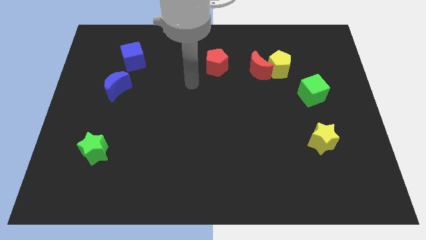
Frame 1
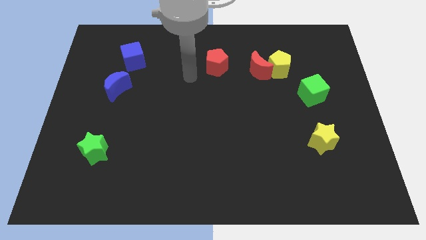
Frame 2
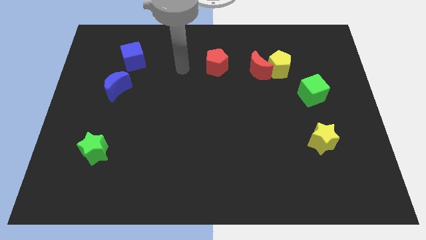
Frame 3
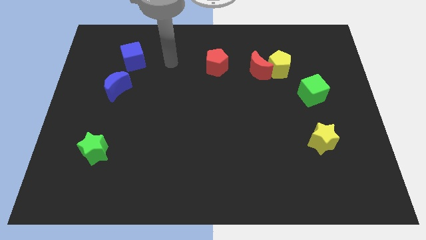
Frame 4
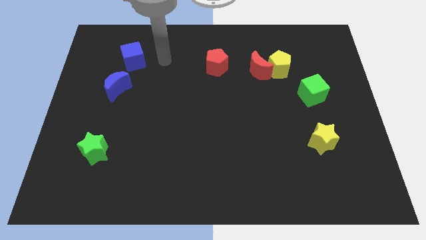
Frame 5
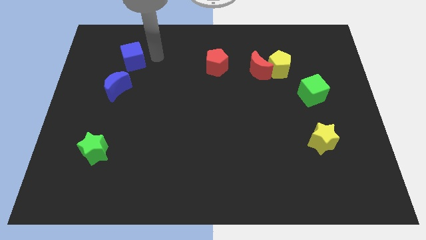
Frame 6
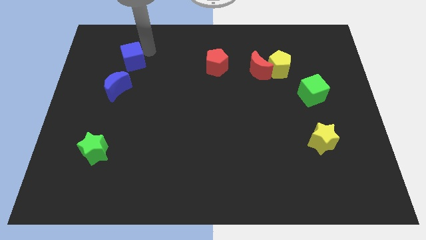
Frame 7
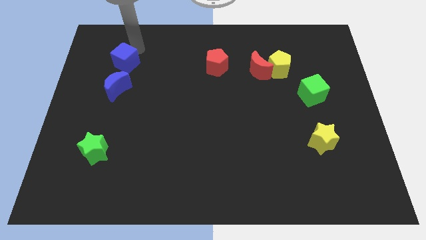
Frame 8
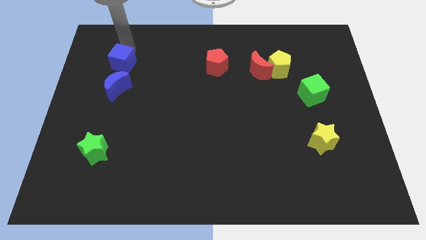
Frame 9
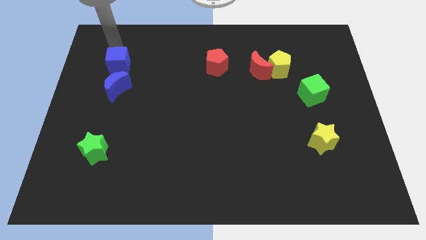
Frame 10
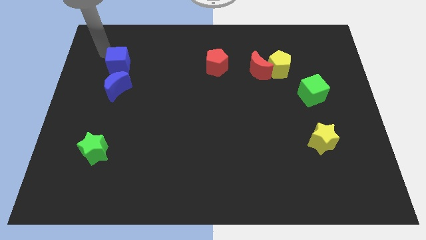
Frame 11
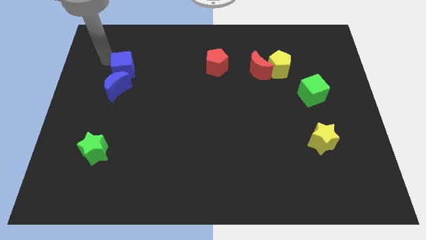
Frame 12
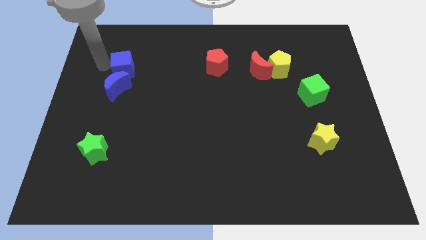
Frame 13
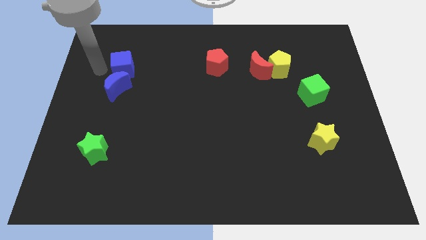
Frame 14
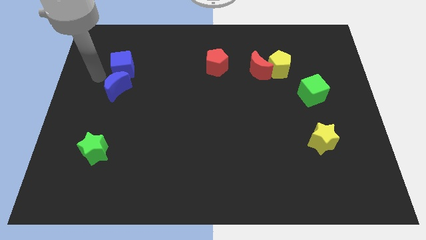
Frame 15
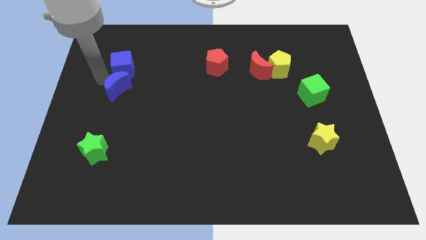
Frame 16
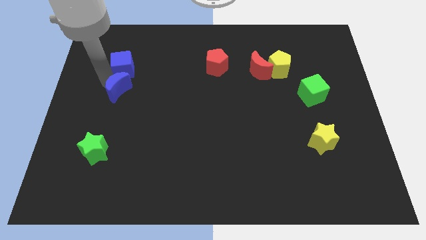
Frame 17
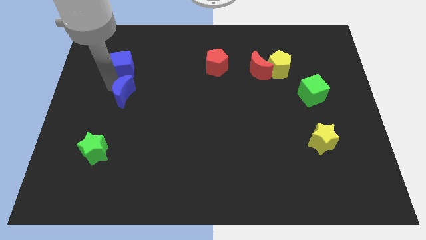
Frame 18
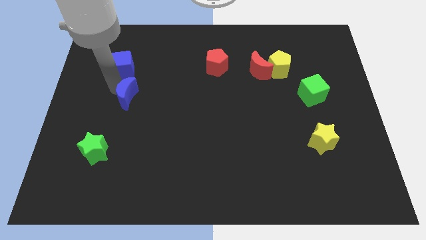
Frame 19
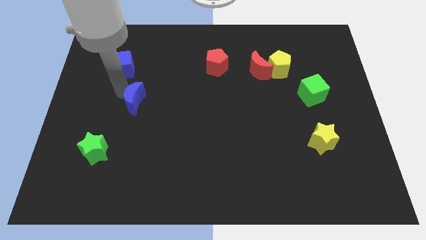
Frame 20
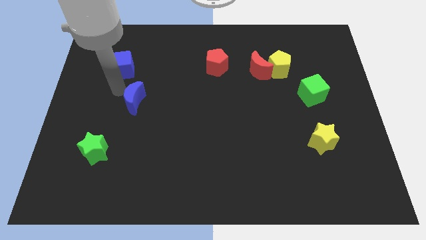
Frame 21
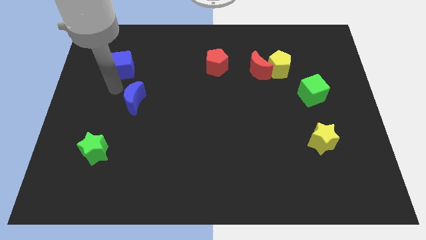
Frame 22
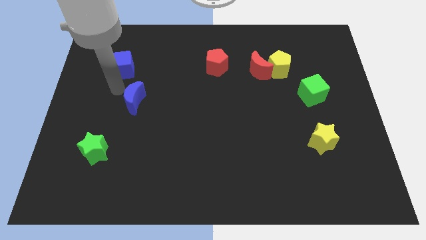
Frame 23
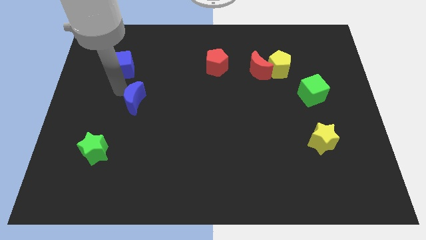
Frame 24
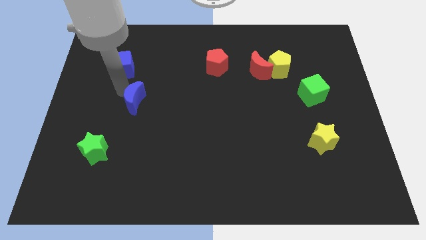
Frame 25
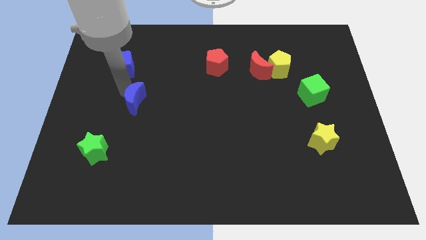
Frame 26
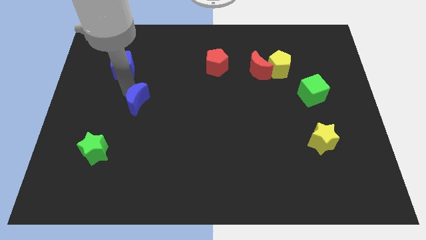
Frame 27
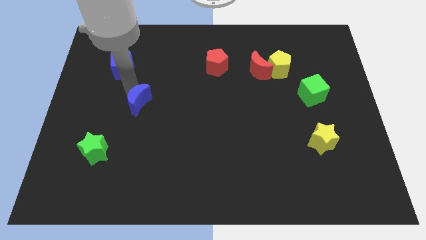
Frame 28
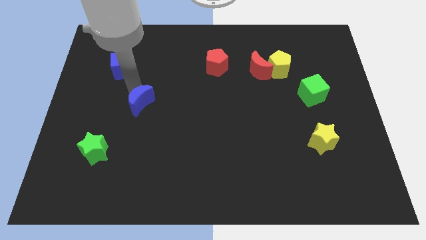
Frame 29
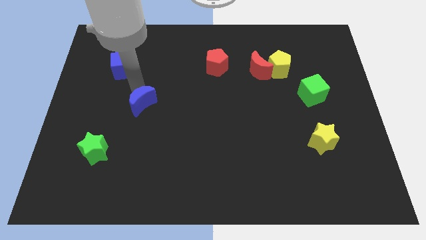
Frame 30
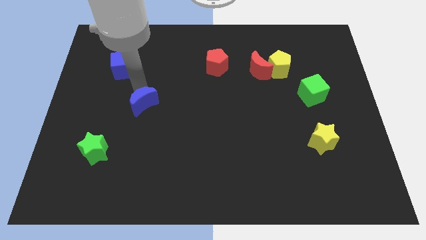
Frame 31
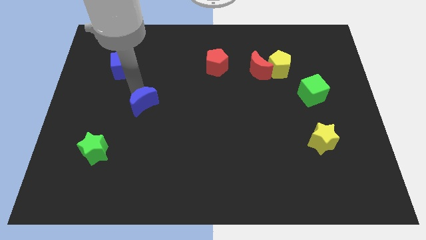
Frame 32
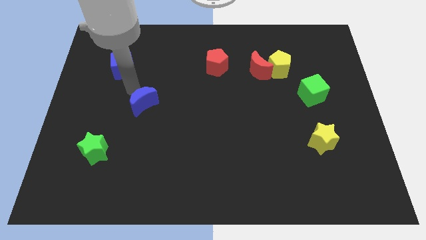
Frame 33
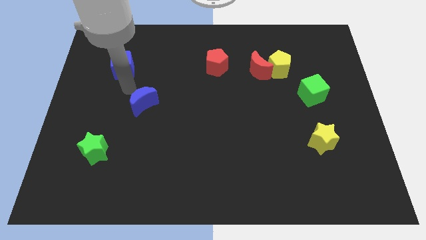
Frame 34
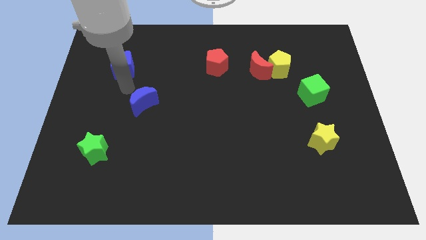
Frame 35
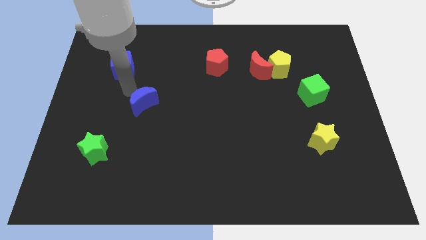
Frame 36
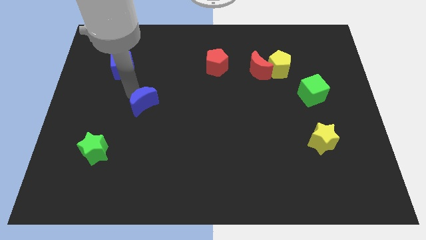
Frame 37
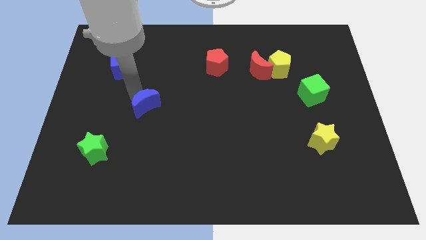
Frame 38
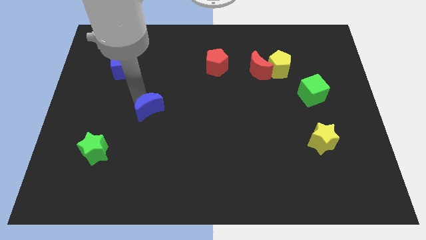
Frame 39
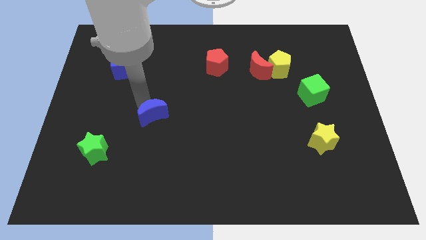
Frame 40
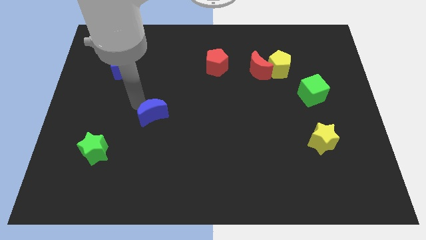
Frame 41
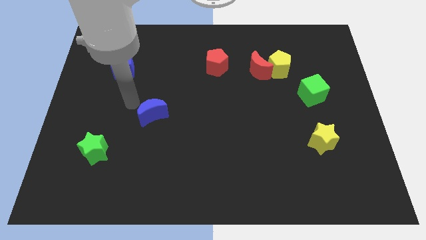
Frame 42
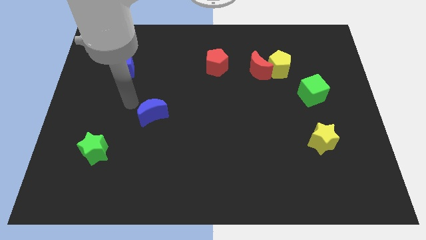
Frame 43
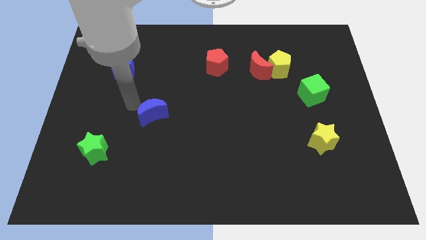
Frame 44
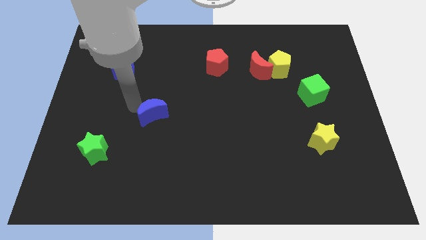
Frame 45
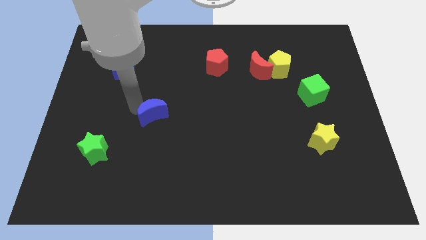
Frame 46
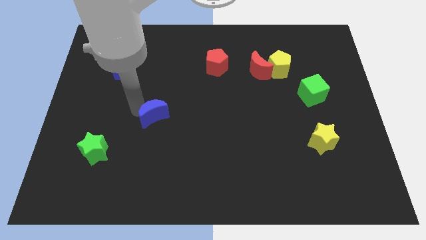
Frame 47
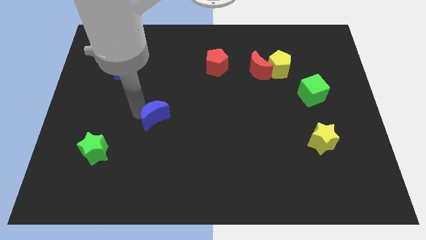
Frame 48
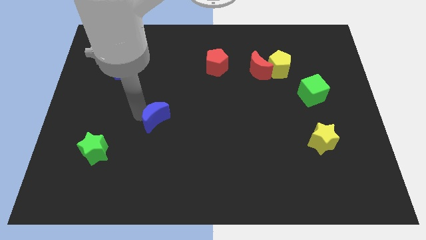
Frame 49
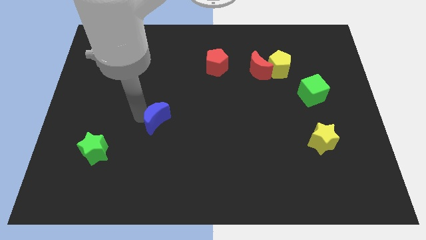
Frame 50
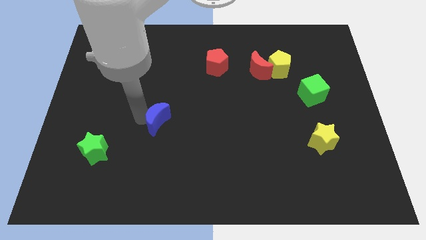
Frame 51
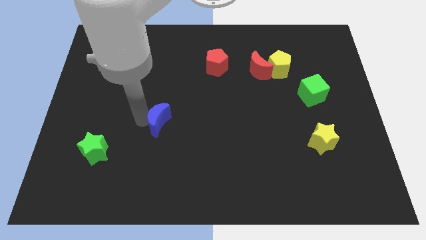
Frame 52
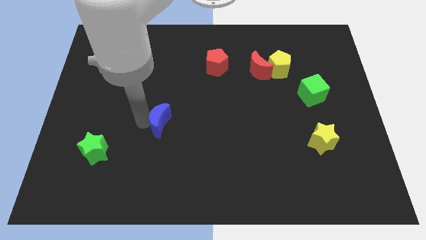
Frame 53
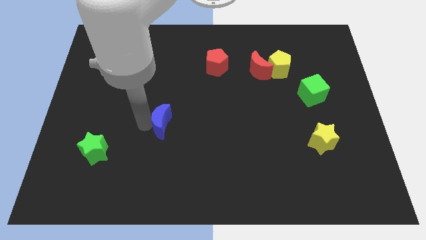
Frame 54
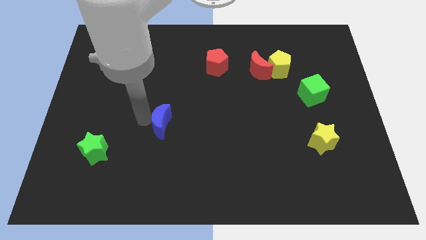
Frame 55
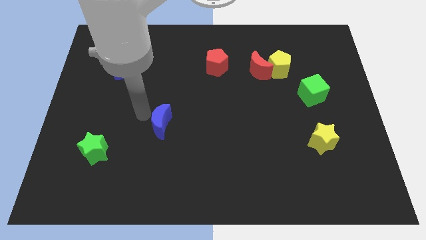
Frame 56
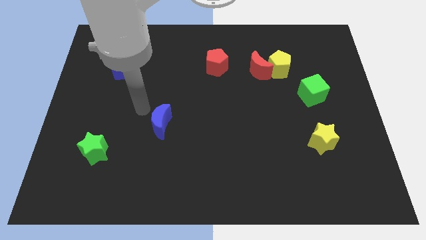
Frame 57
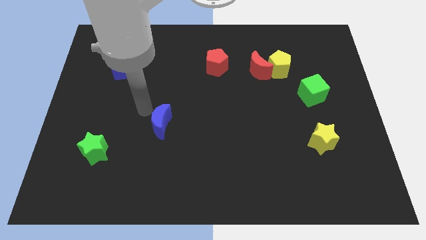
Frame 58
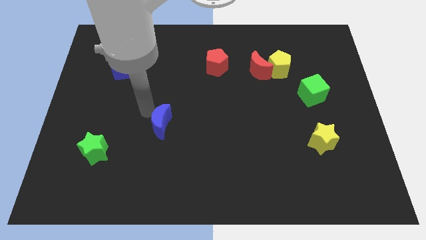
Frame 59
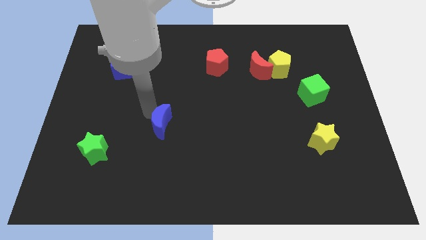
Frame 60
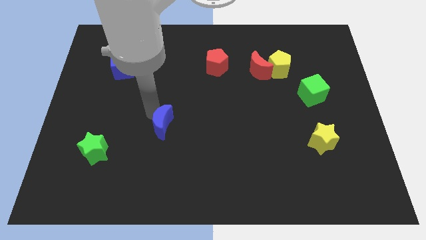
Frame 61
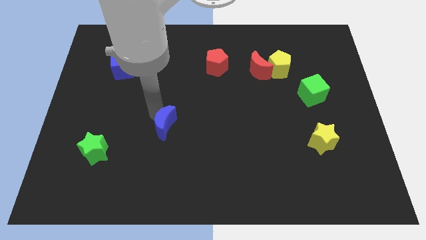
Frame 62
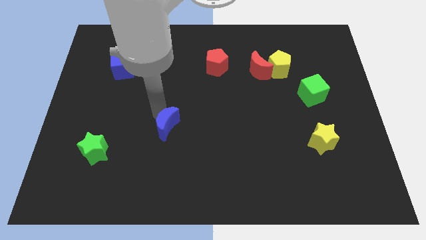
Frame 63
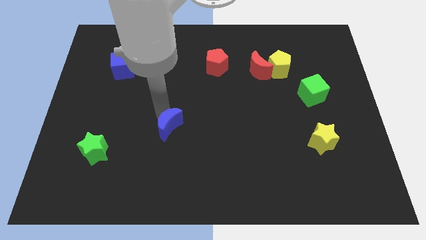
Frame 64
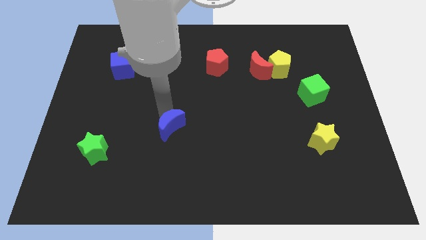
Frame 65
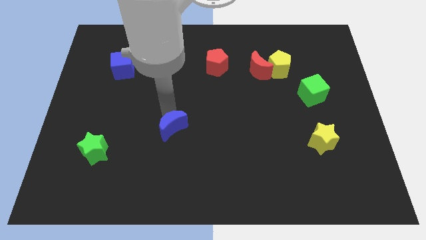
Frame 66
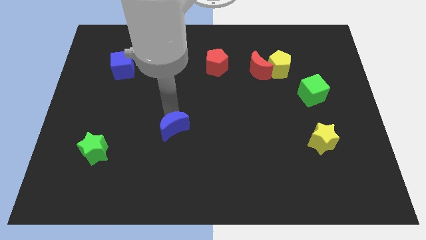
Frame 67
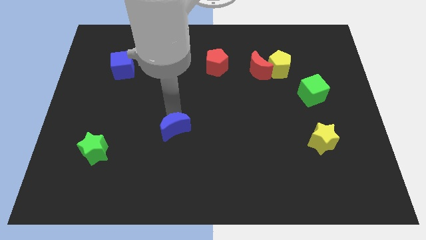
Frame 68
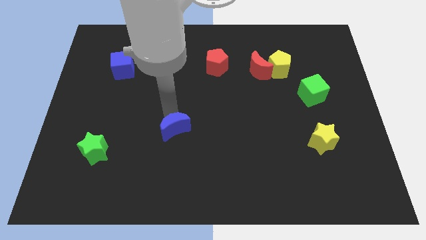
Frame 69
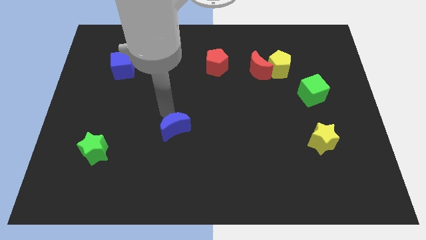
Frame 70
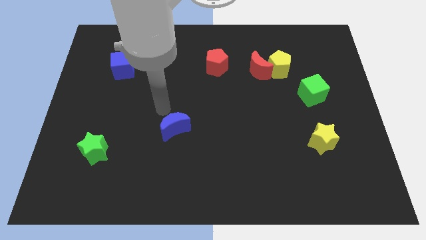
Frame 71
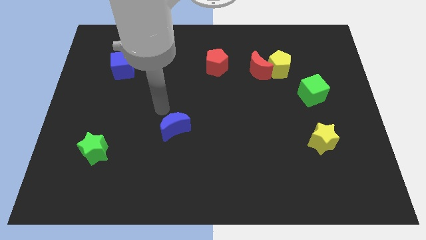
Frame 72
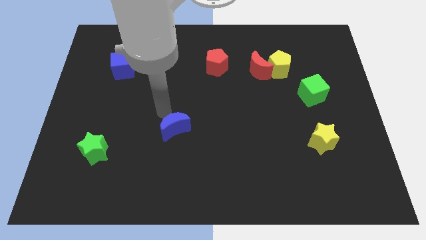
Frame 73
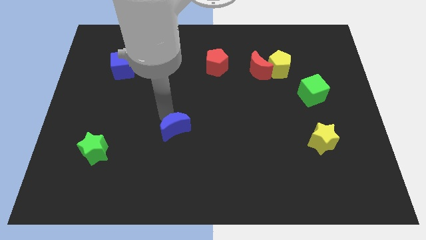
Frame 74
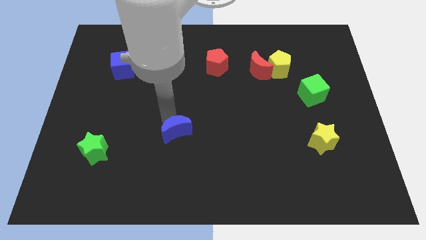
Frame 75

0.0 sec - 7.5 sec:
slide the blue moon down and to the right

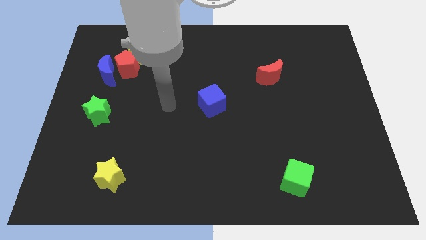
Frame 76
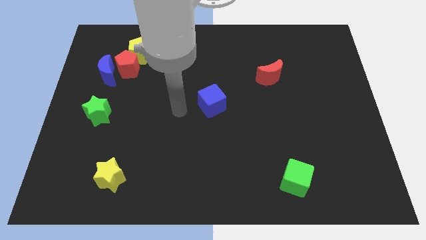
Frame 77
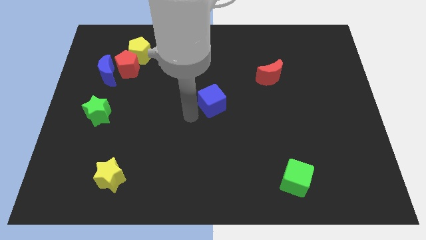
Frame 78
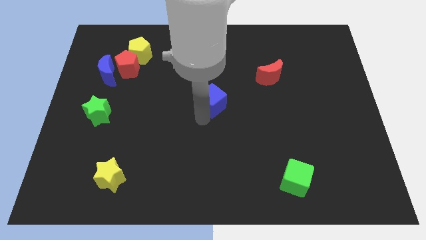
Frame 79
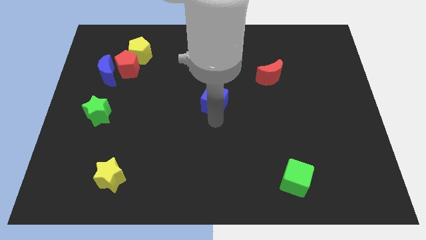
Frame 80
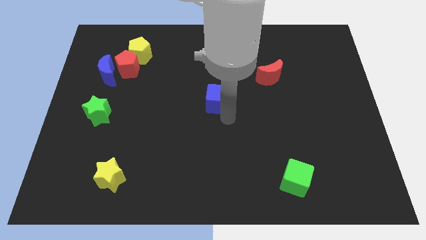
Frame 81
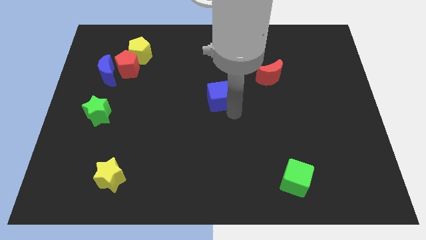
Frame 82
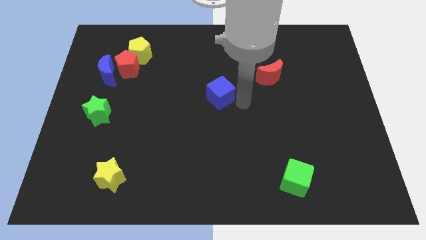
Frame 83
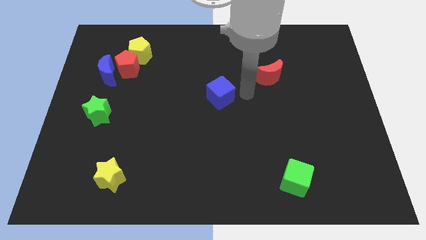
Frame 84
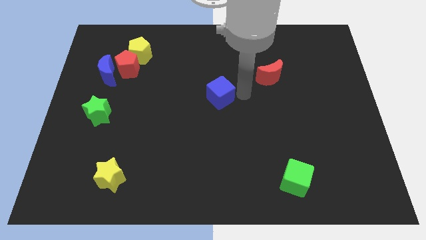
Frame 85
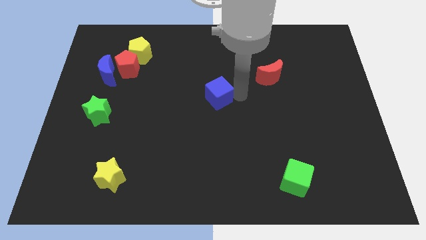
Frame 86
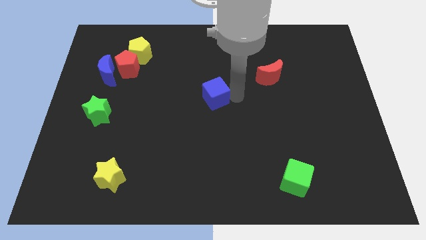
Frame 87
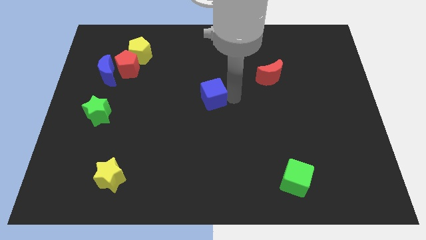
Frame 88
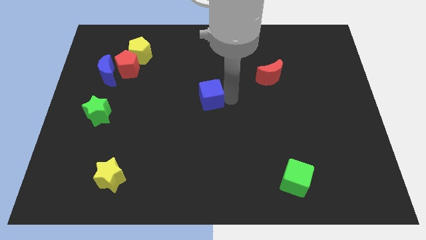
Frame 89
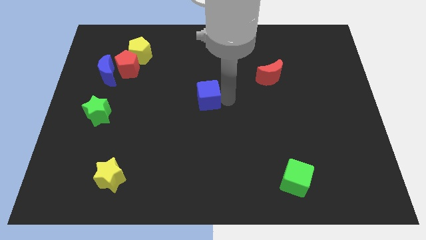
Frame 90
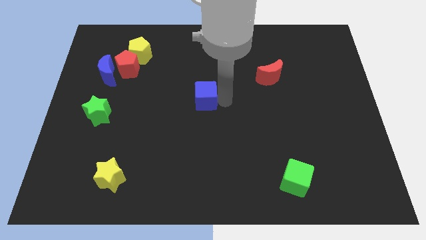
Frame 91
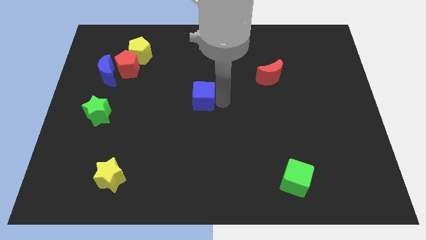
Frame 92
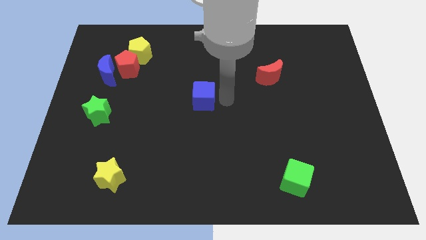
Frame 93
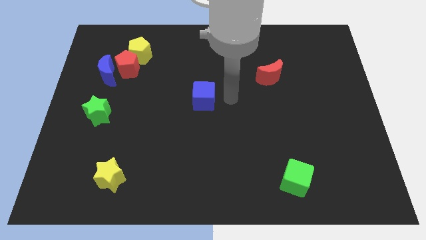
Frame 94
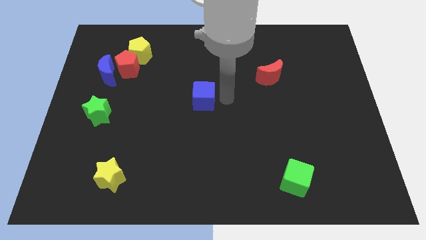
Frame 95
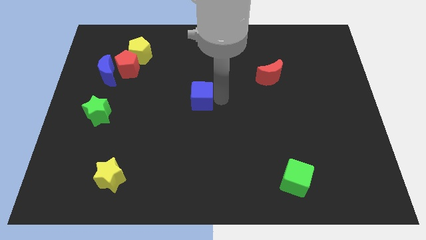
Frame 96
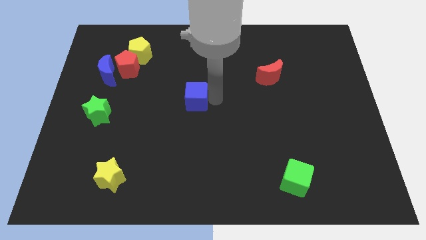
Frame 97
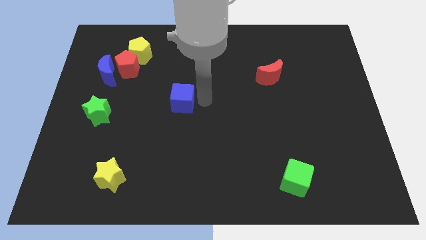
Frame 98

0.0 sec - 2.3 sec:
push the blue cube somewhat to the left
